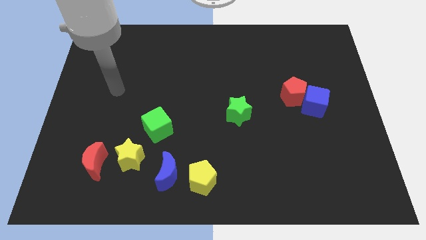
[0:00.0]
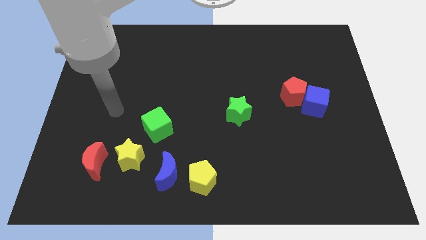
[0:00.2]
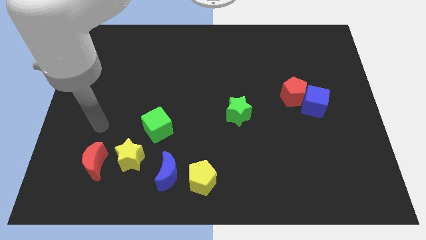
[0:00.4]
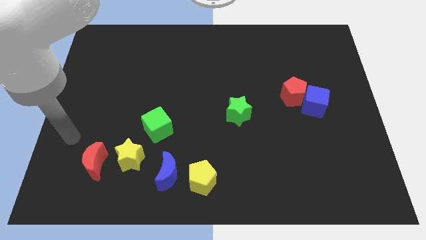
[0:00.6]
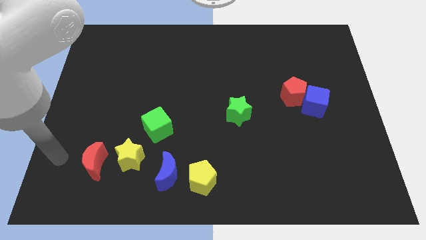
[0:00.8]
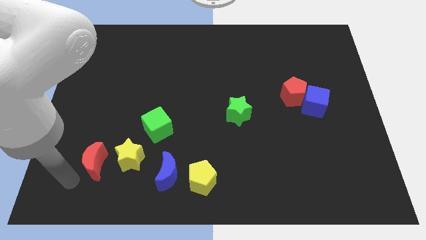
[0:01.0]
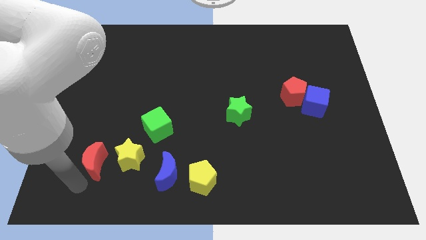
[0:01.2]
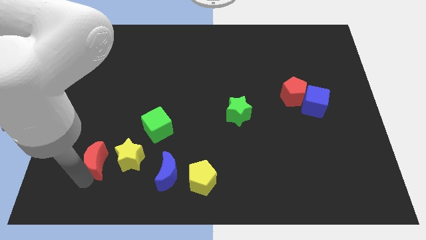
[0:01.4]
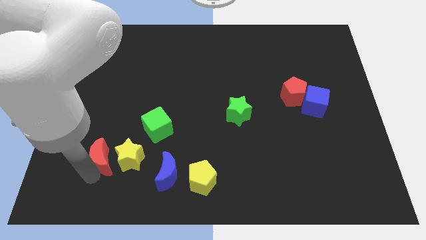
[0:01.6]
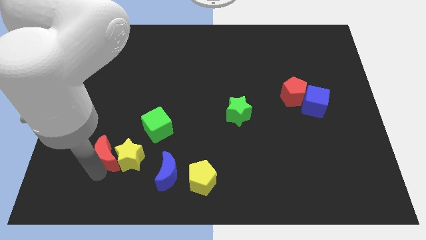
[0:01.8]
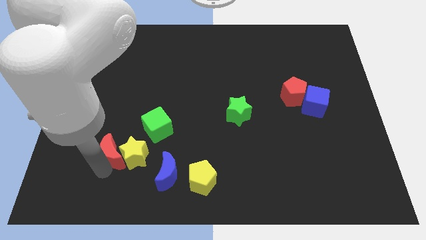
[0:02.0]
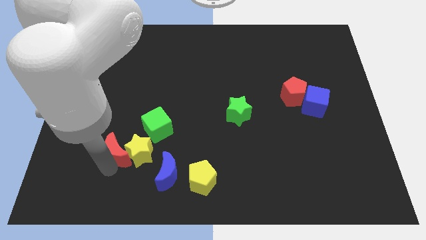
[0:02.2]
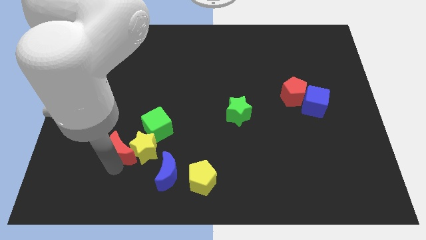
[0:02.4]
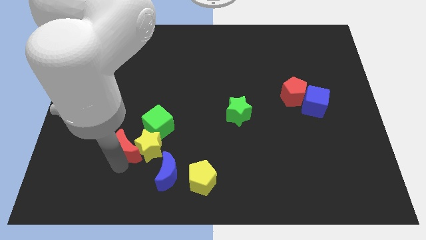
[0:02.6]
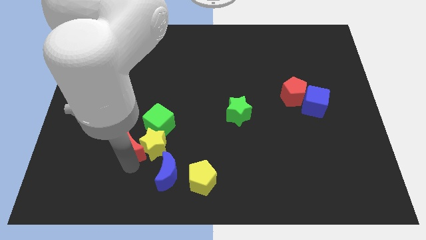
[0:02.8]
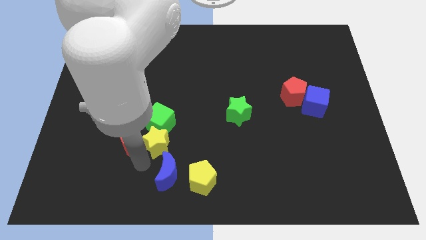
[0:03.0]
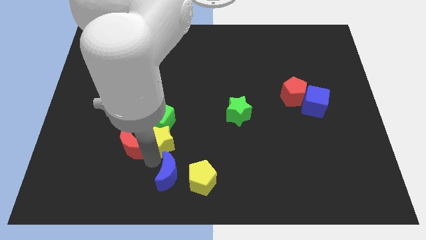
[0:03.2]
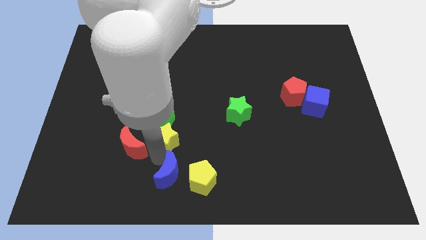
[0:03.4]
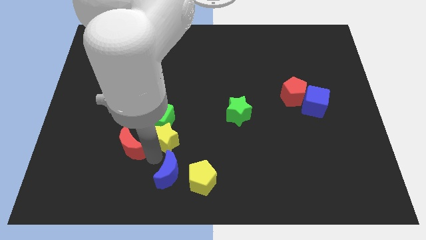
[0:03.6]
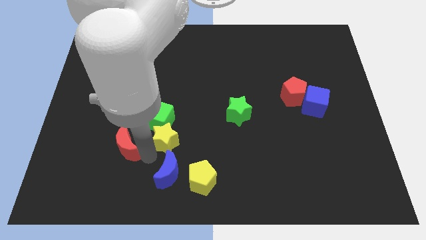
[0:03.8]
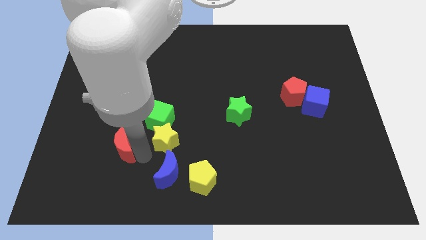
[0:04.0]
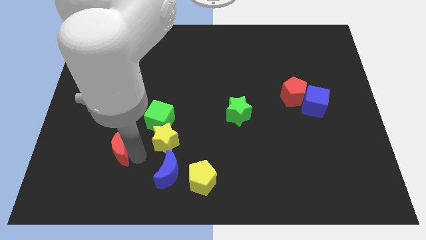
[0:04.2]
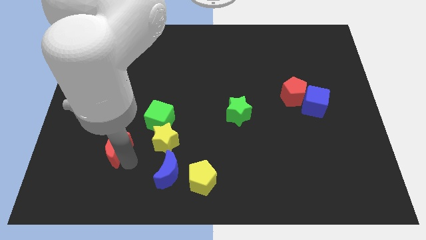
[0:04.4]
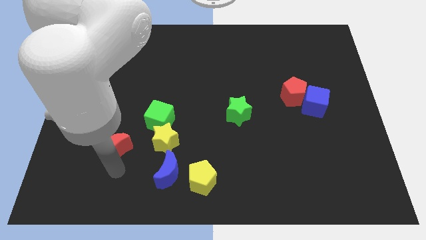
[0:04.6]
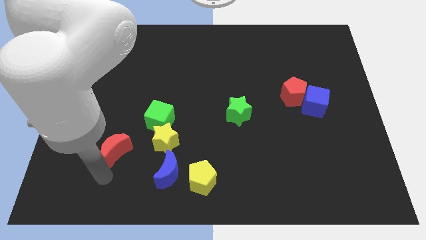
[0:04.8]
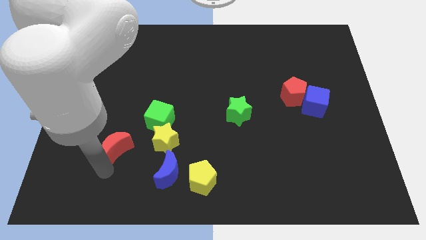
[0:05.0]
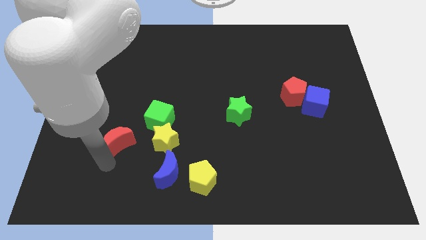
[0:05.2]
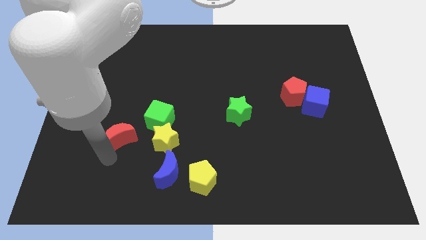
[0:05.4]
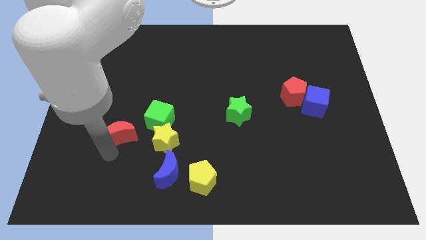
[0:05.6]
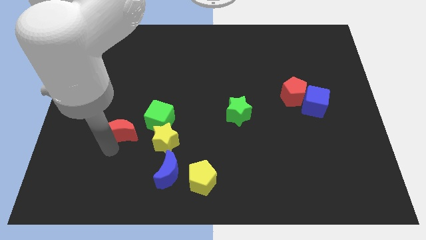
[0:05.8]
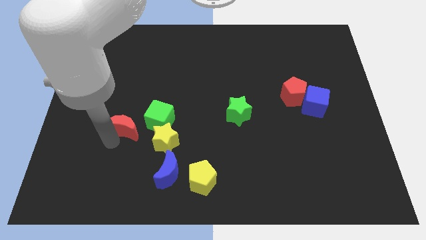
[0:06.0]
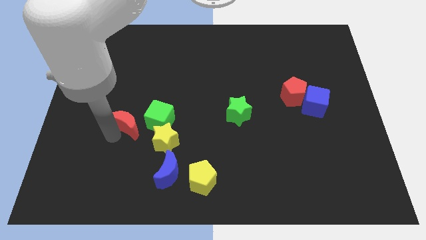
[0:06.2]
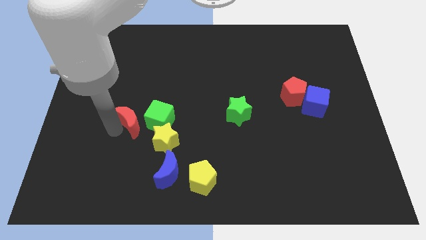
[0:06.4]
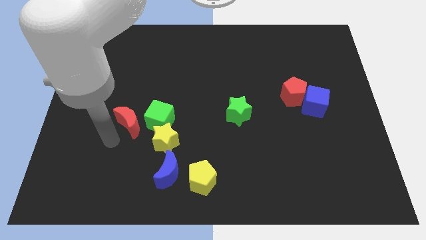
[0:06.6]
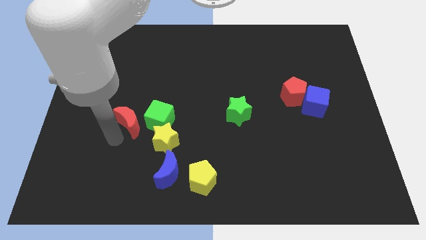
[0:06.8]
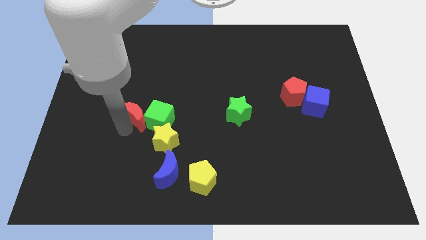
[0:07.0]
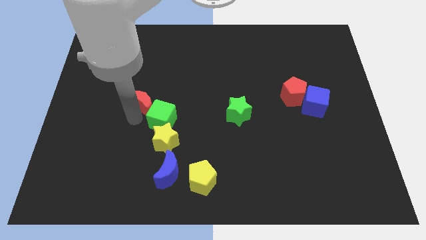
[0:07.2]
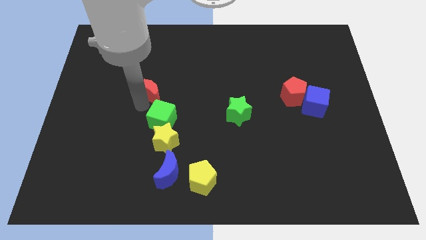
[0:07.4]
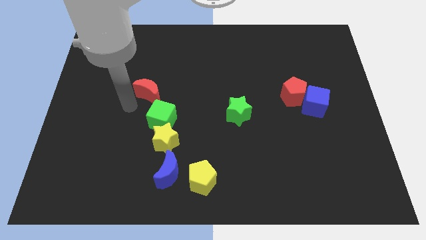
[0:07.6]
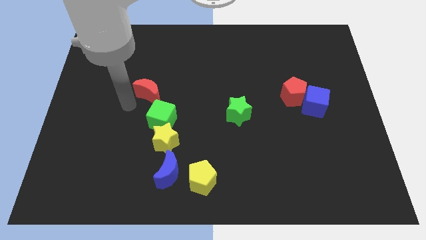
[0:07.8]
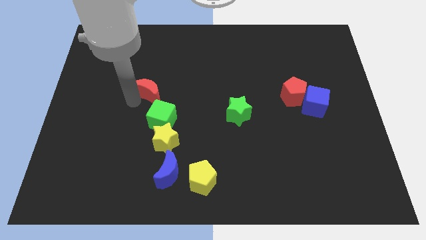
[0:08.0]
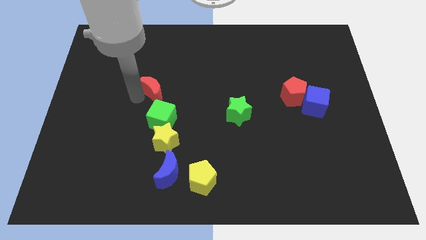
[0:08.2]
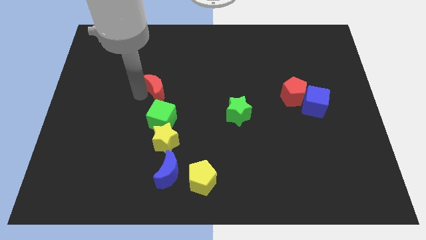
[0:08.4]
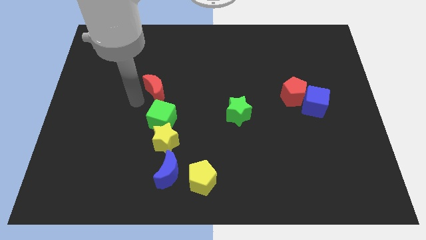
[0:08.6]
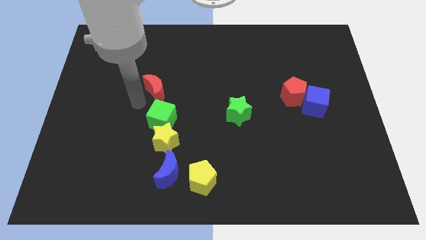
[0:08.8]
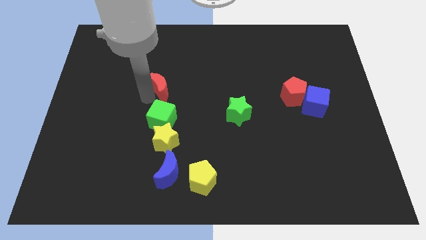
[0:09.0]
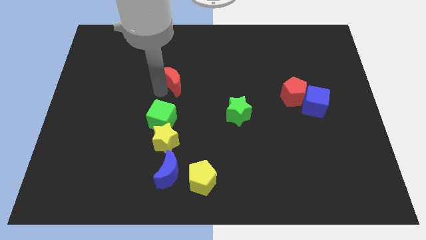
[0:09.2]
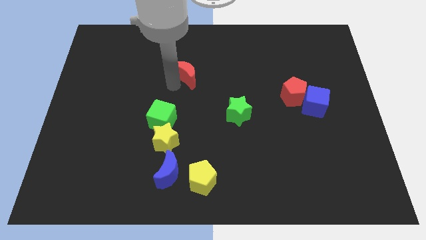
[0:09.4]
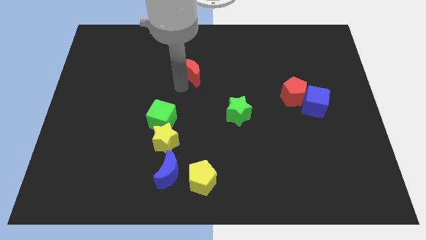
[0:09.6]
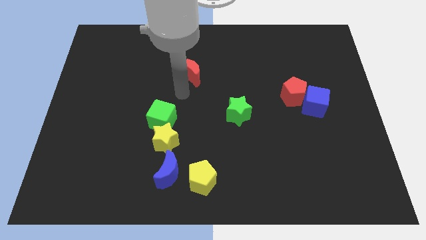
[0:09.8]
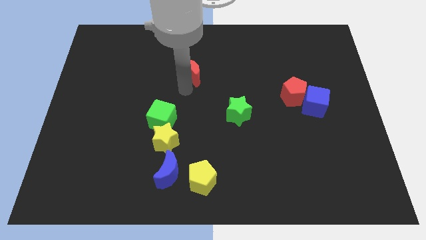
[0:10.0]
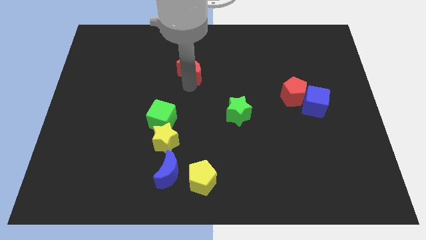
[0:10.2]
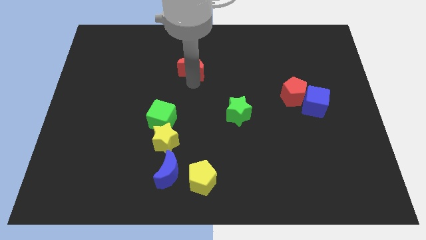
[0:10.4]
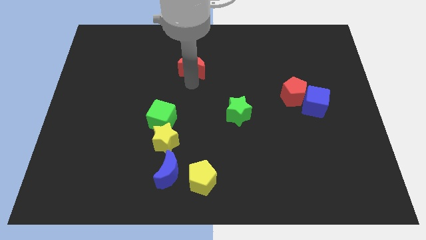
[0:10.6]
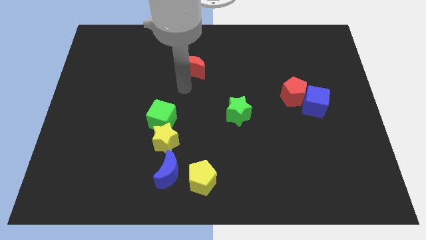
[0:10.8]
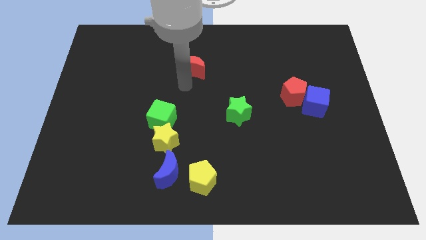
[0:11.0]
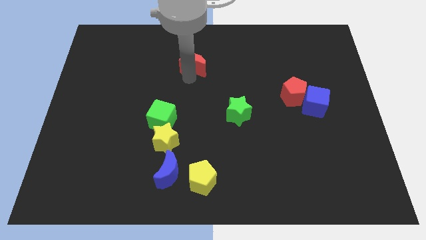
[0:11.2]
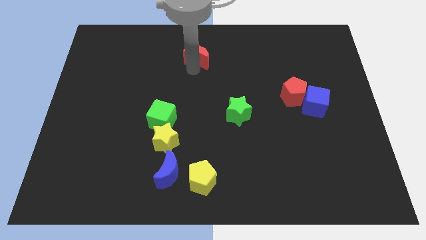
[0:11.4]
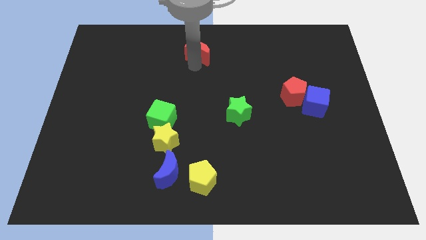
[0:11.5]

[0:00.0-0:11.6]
slide the red moon to the top

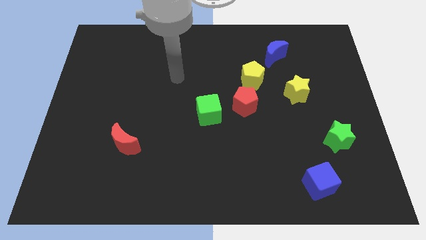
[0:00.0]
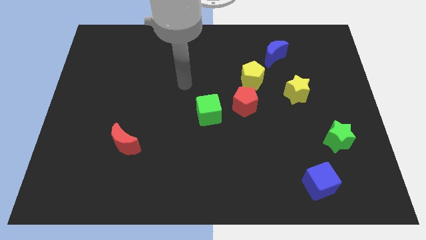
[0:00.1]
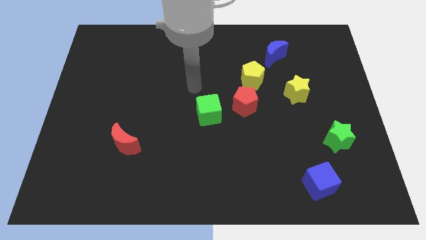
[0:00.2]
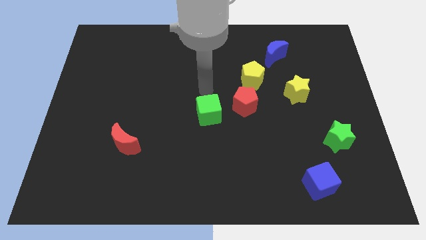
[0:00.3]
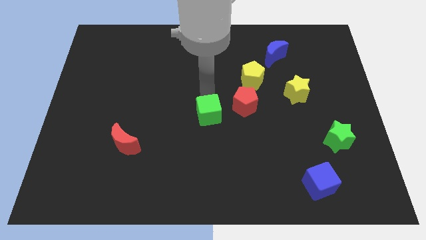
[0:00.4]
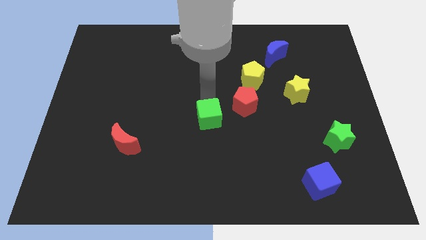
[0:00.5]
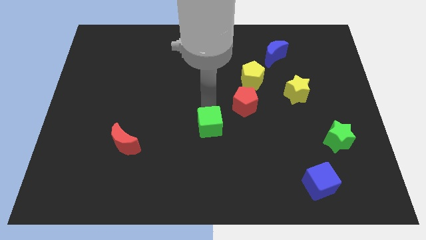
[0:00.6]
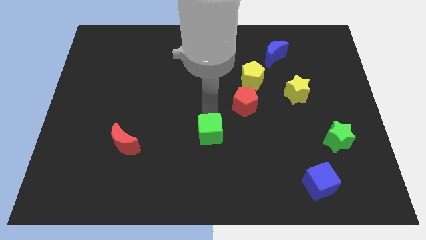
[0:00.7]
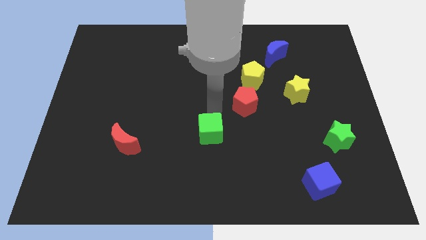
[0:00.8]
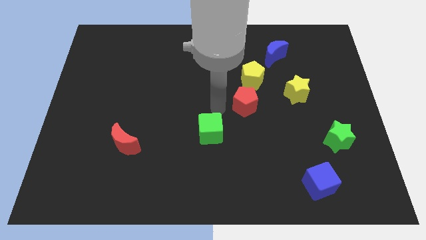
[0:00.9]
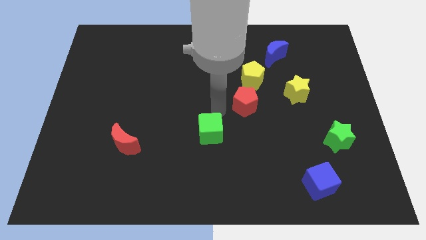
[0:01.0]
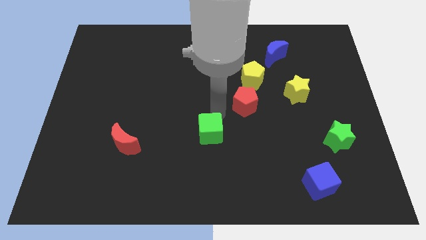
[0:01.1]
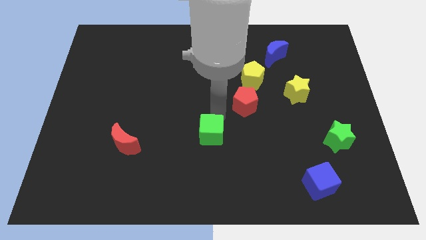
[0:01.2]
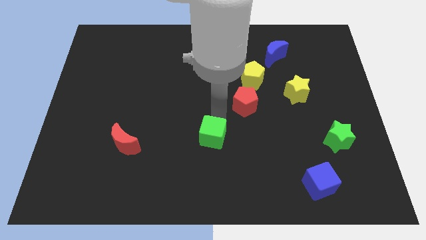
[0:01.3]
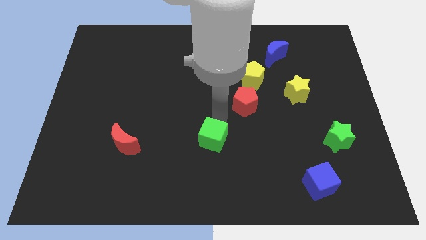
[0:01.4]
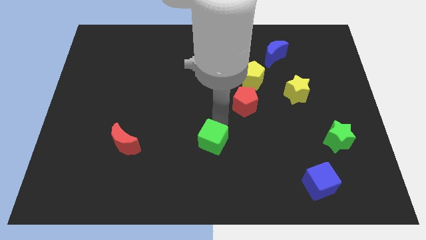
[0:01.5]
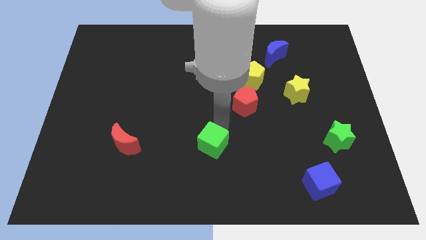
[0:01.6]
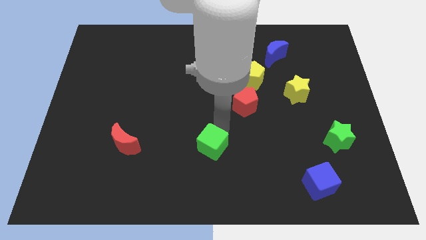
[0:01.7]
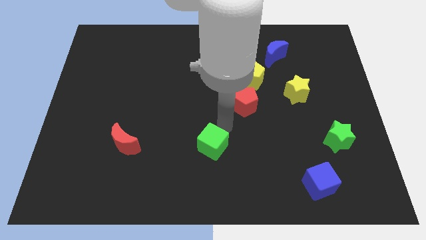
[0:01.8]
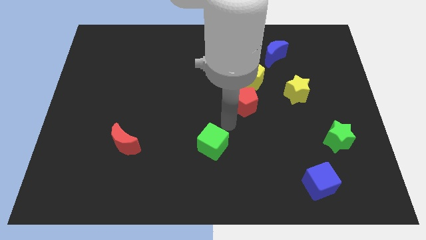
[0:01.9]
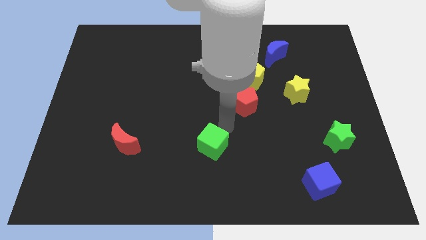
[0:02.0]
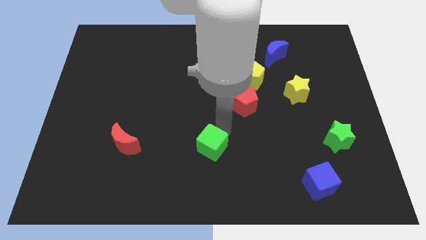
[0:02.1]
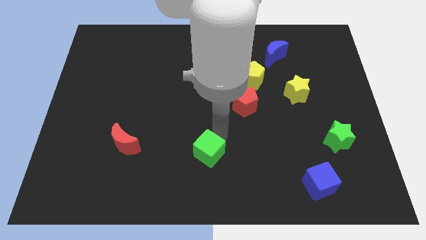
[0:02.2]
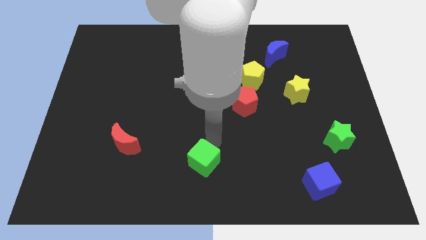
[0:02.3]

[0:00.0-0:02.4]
push the green cube to the bottom
